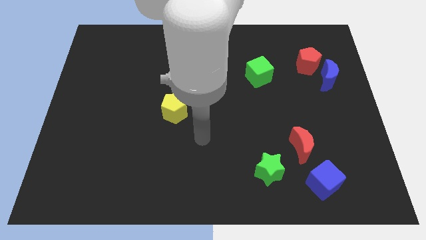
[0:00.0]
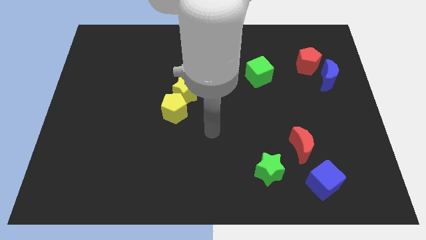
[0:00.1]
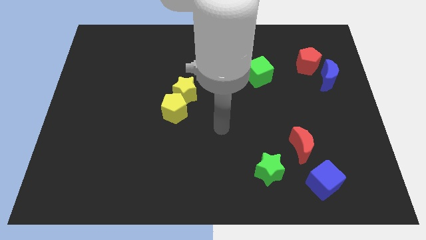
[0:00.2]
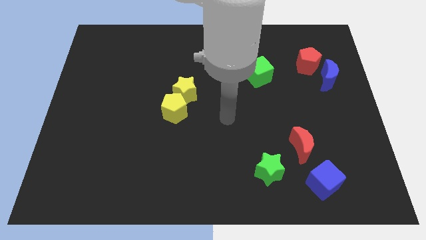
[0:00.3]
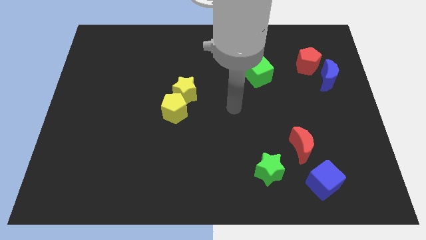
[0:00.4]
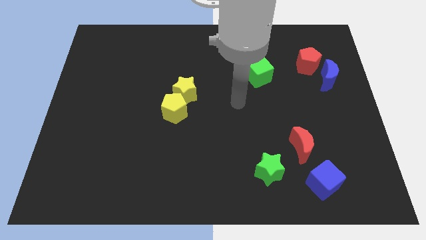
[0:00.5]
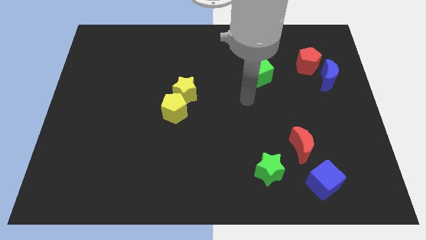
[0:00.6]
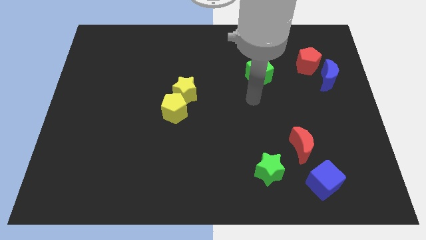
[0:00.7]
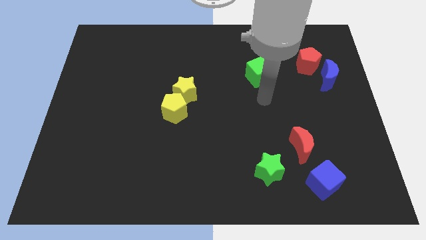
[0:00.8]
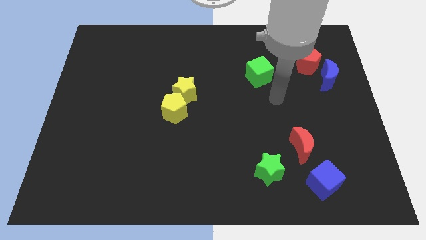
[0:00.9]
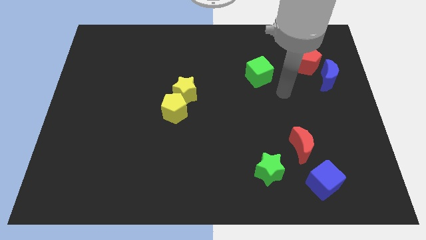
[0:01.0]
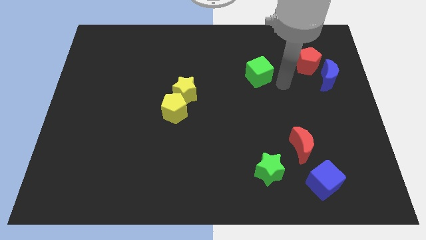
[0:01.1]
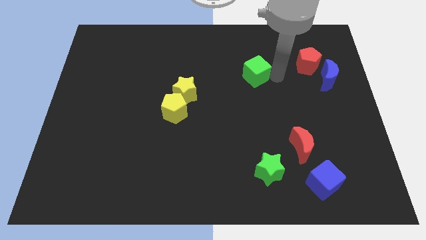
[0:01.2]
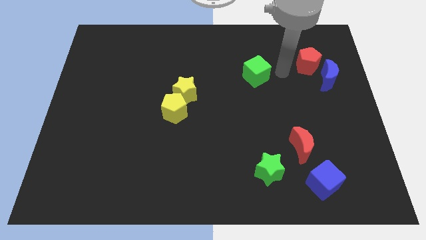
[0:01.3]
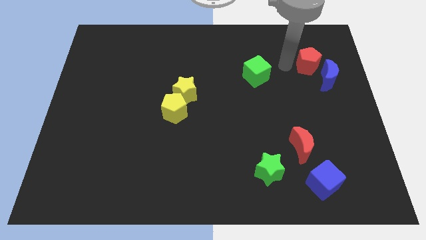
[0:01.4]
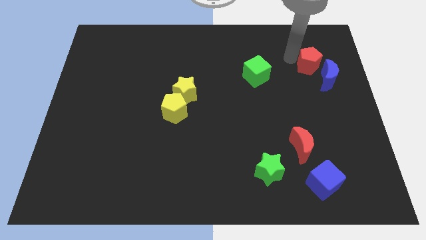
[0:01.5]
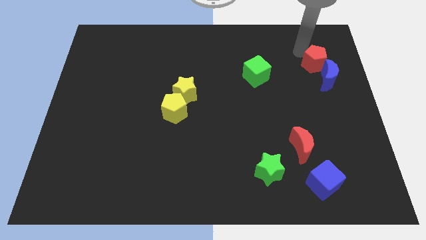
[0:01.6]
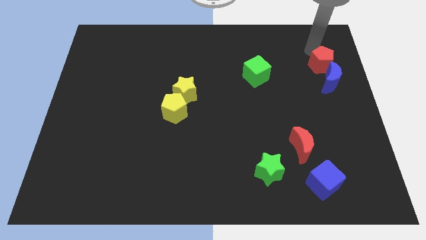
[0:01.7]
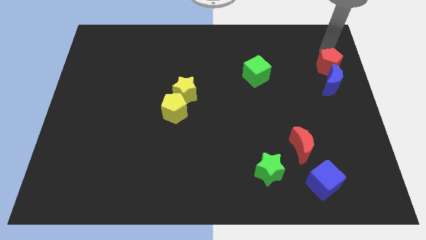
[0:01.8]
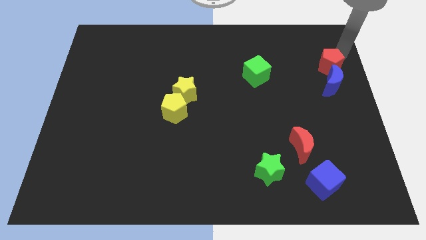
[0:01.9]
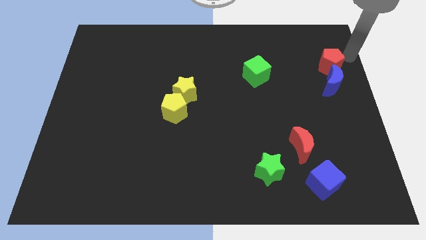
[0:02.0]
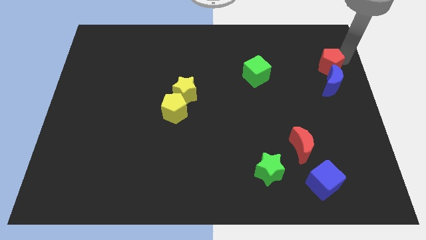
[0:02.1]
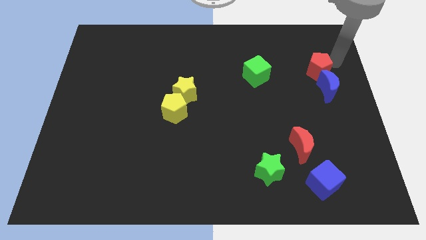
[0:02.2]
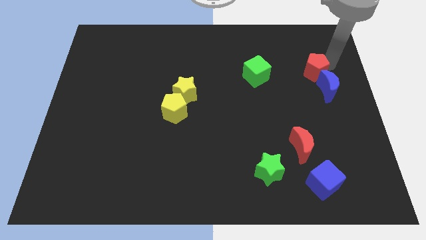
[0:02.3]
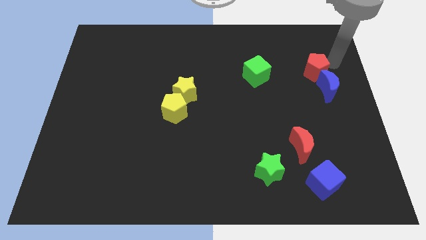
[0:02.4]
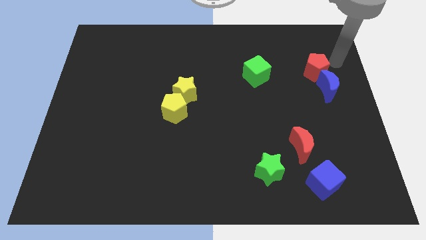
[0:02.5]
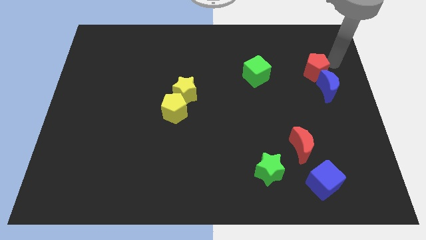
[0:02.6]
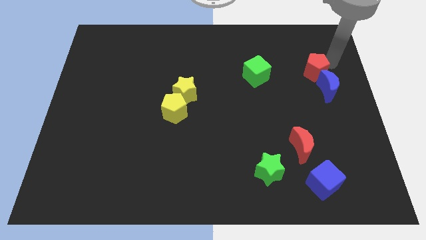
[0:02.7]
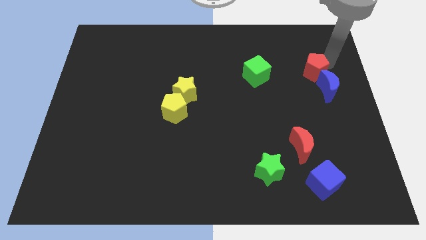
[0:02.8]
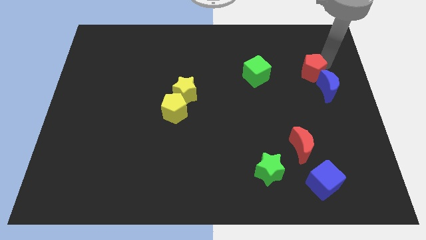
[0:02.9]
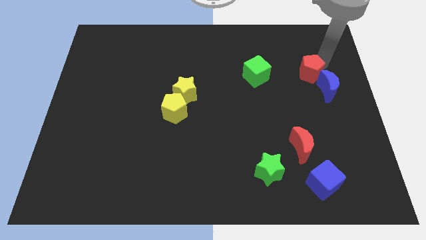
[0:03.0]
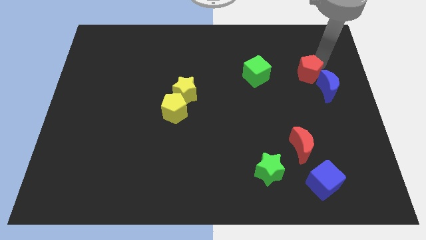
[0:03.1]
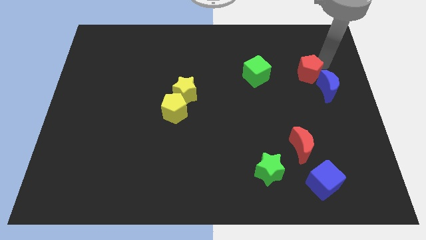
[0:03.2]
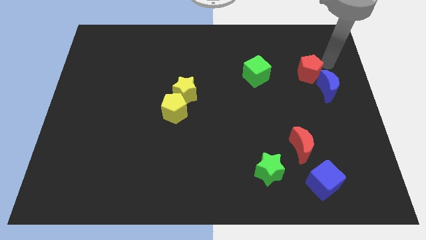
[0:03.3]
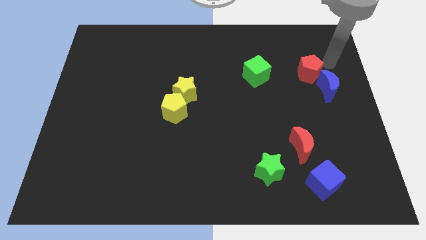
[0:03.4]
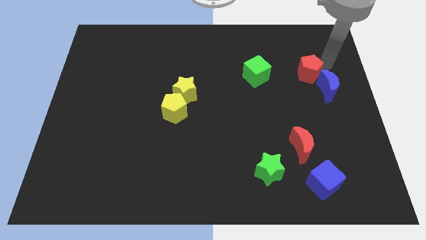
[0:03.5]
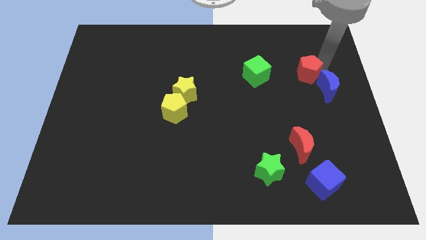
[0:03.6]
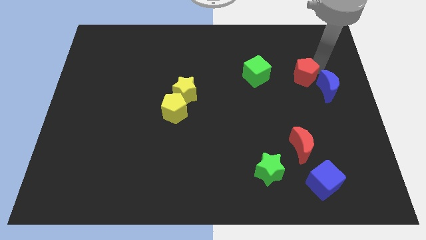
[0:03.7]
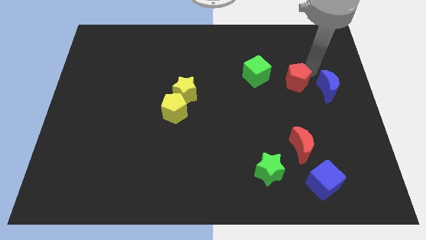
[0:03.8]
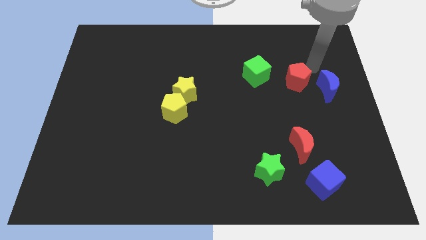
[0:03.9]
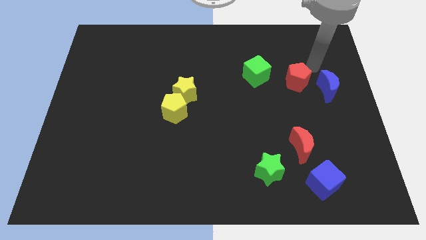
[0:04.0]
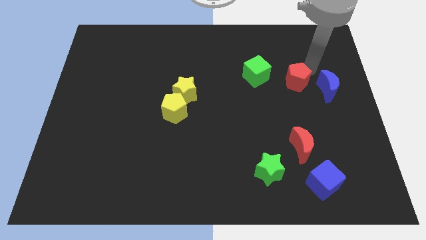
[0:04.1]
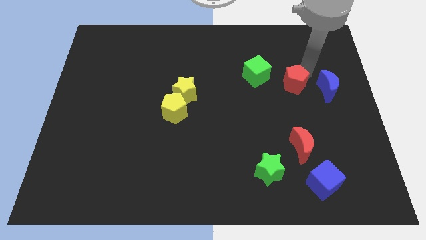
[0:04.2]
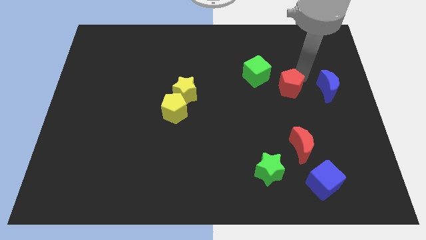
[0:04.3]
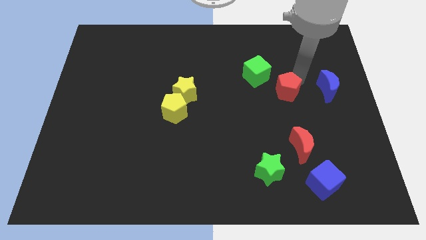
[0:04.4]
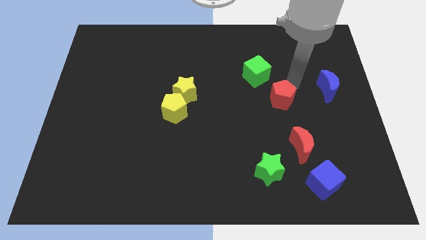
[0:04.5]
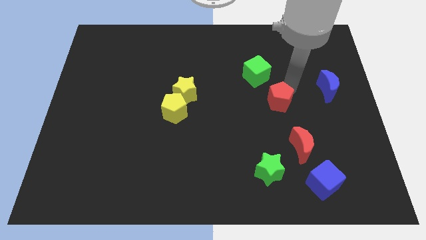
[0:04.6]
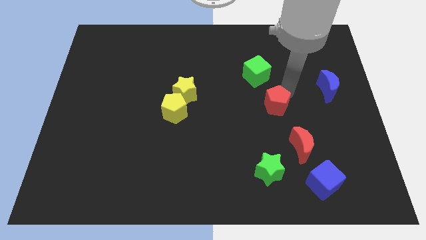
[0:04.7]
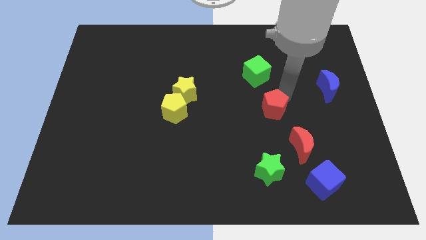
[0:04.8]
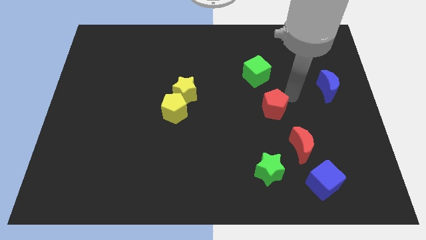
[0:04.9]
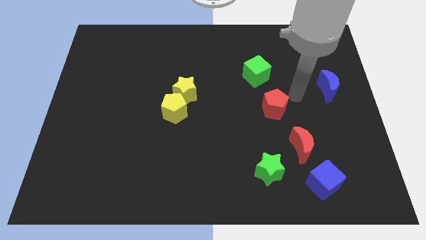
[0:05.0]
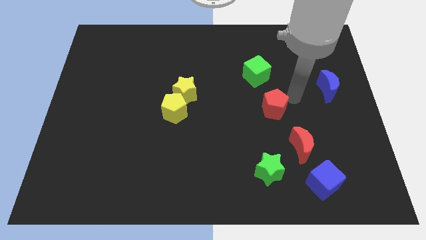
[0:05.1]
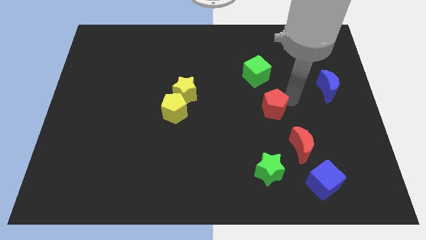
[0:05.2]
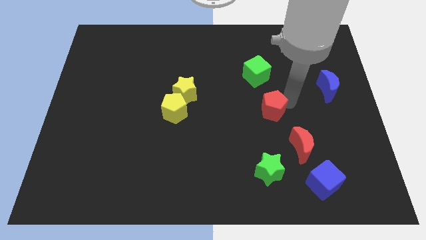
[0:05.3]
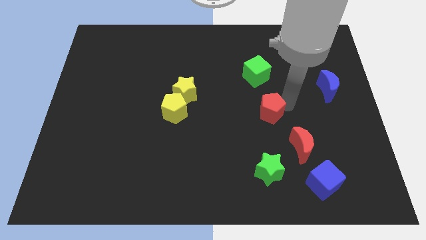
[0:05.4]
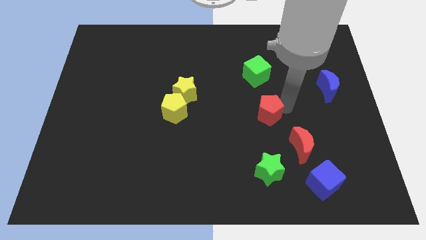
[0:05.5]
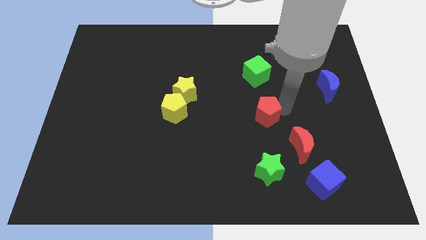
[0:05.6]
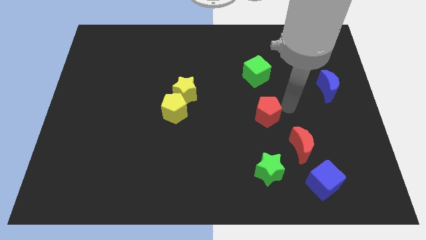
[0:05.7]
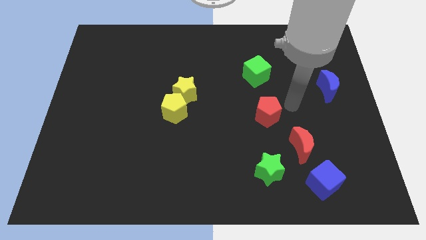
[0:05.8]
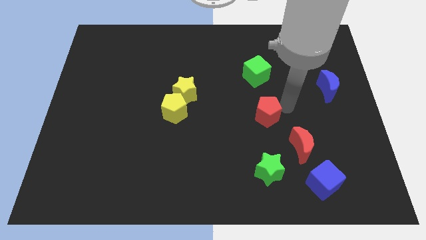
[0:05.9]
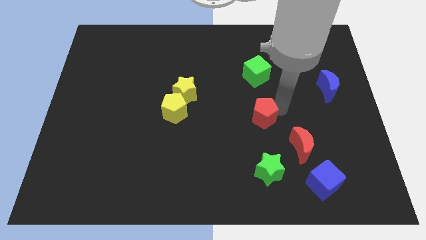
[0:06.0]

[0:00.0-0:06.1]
push the red pentagon diagonally down and to the left

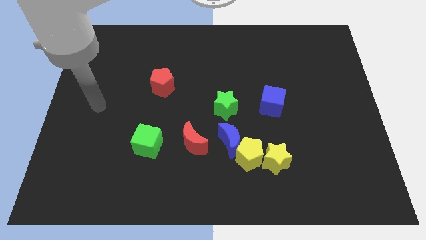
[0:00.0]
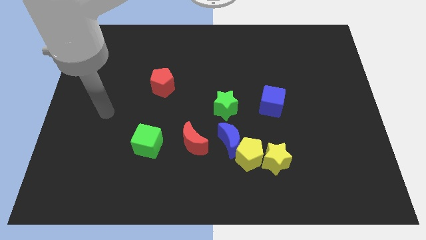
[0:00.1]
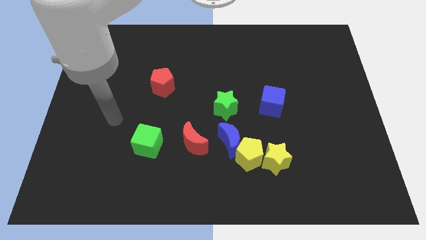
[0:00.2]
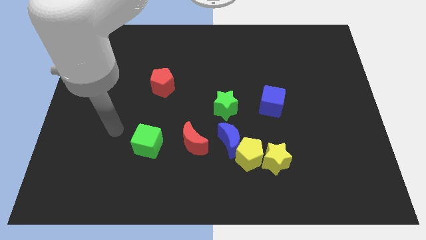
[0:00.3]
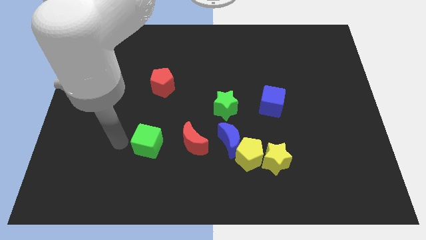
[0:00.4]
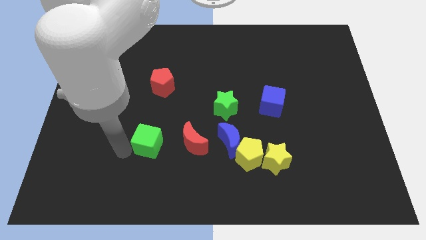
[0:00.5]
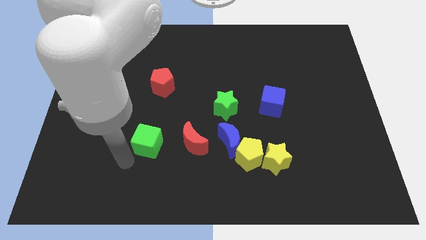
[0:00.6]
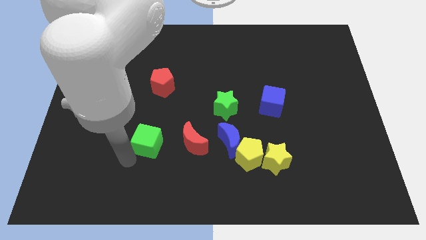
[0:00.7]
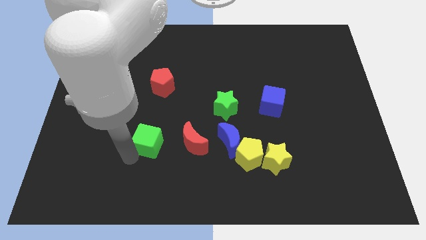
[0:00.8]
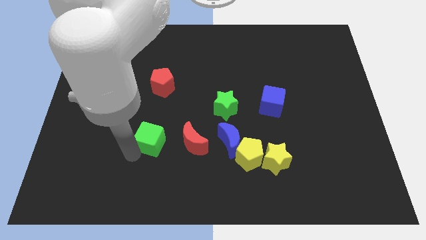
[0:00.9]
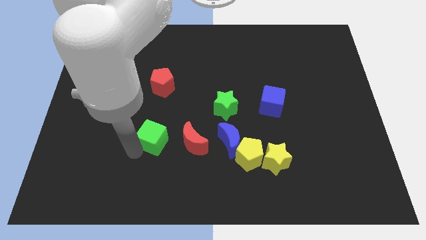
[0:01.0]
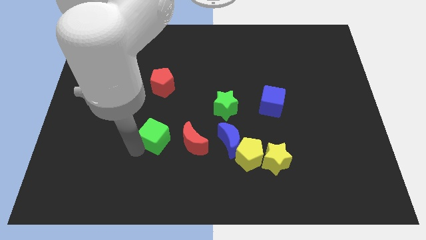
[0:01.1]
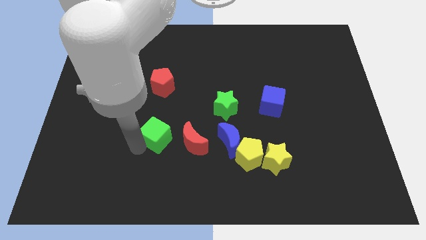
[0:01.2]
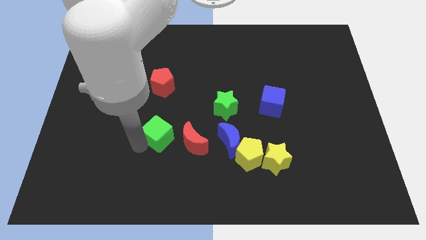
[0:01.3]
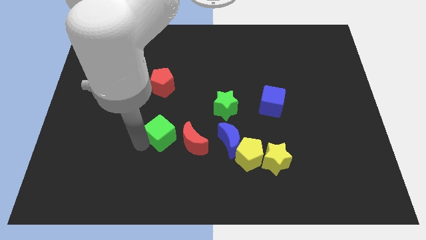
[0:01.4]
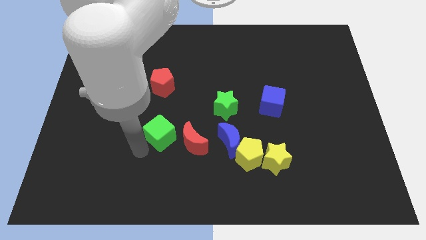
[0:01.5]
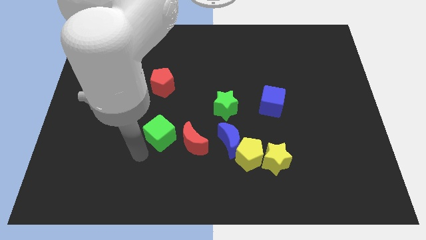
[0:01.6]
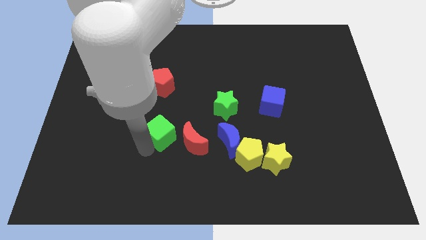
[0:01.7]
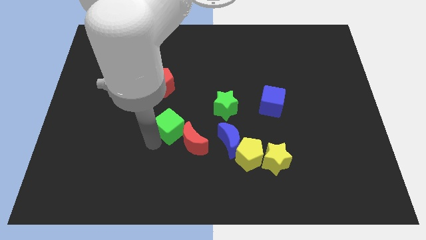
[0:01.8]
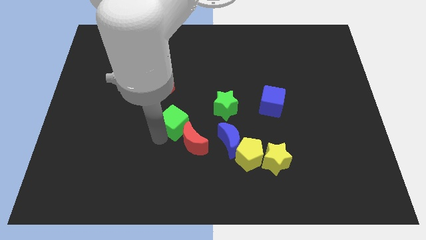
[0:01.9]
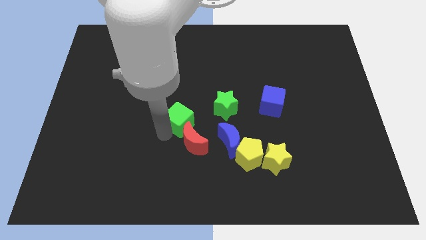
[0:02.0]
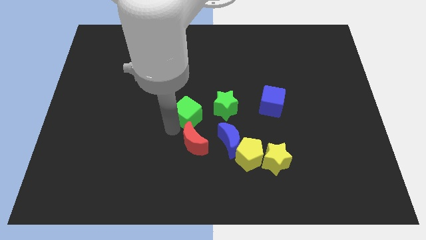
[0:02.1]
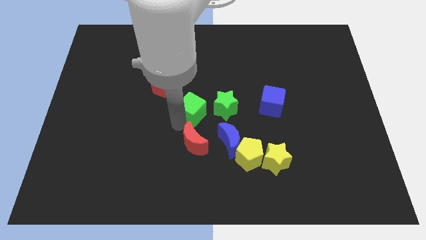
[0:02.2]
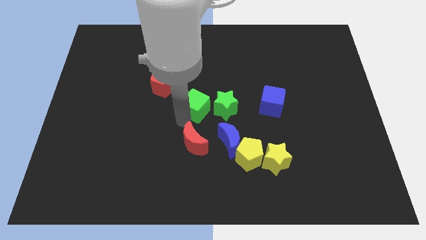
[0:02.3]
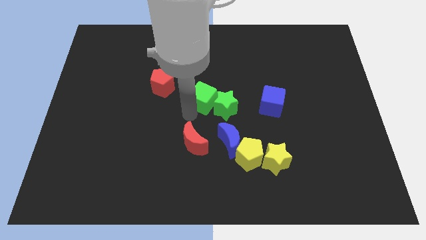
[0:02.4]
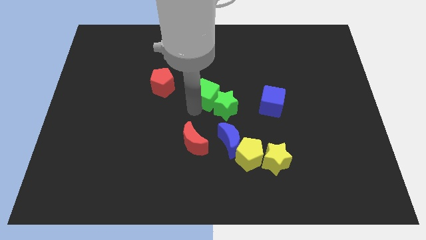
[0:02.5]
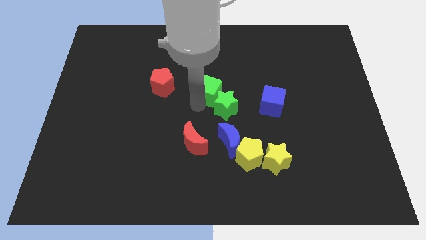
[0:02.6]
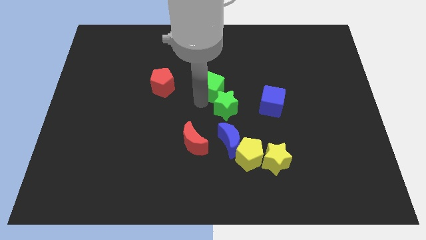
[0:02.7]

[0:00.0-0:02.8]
push the green cube upwards and then right
